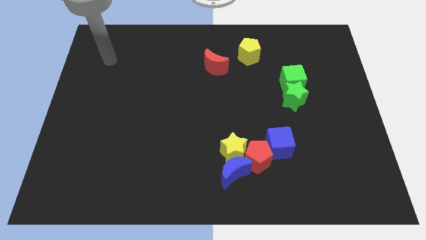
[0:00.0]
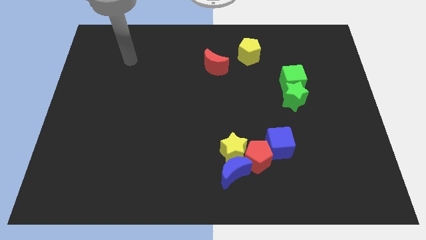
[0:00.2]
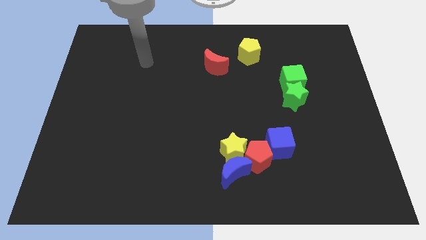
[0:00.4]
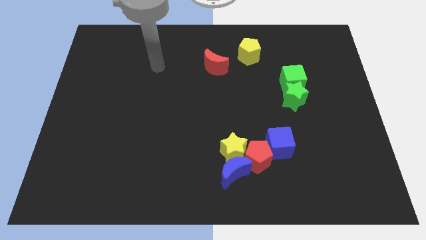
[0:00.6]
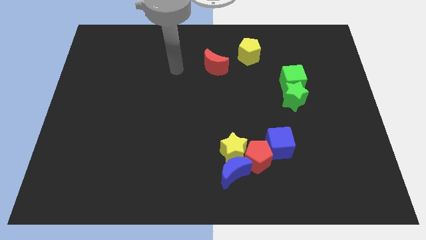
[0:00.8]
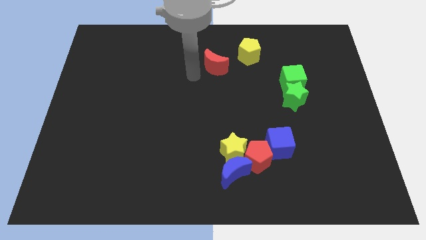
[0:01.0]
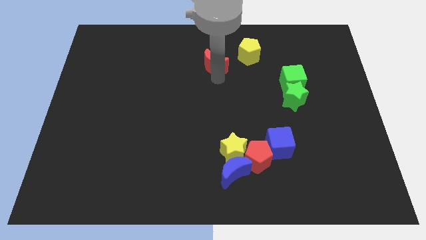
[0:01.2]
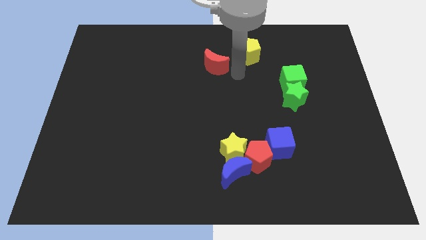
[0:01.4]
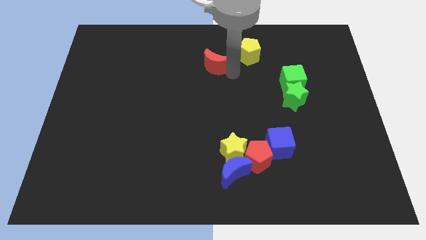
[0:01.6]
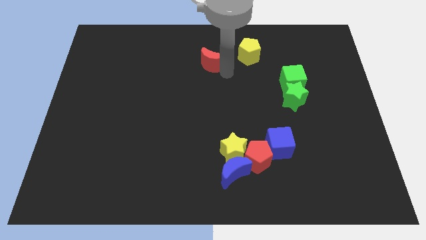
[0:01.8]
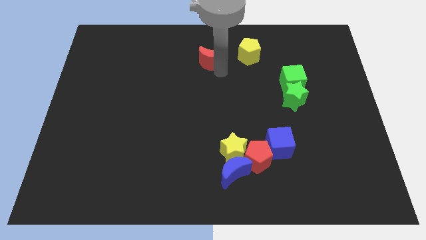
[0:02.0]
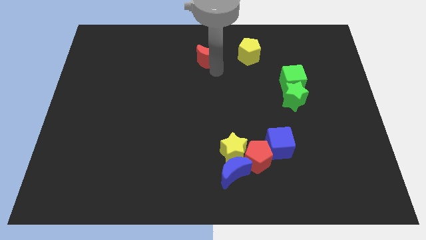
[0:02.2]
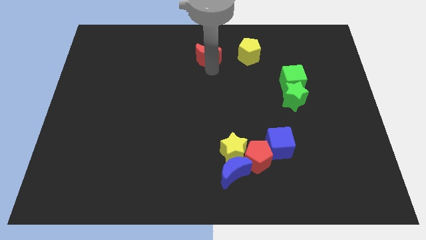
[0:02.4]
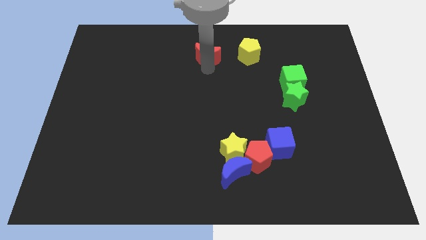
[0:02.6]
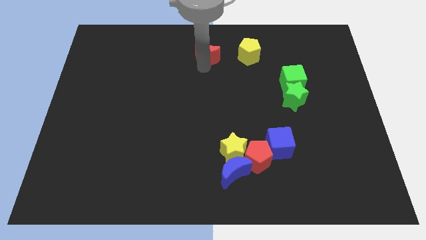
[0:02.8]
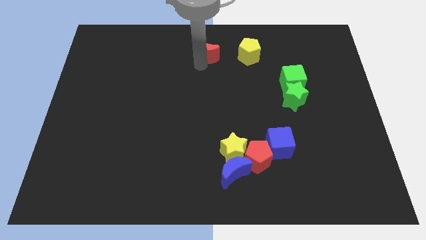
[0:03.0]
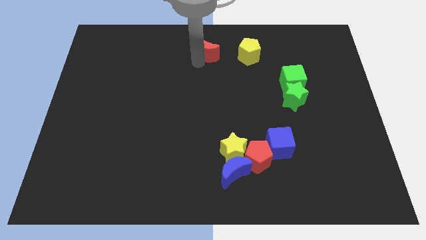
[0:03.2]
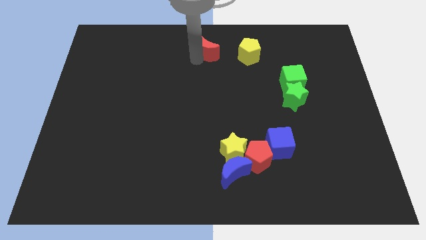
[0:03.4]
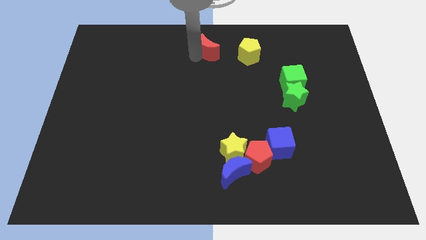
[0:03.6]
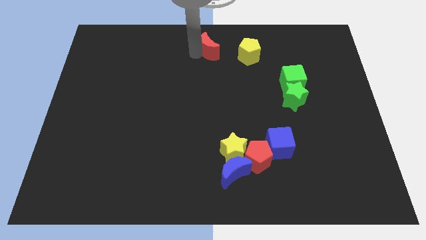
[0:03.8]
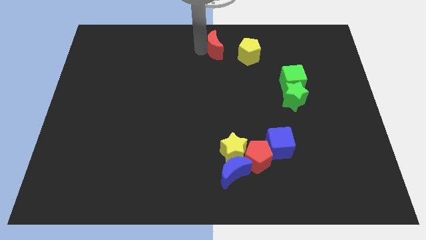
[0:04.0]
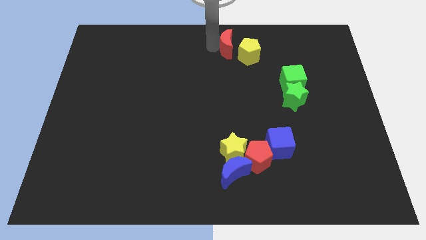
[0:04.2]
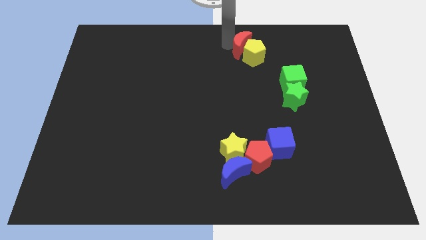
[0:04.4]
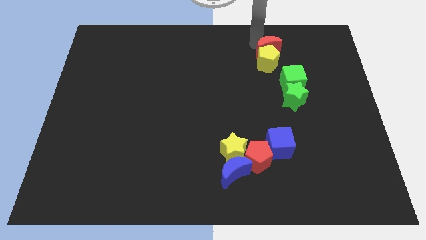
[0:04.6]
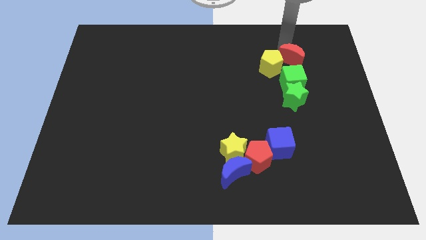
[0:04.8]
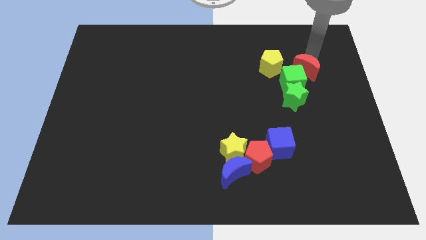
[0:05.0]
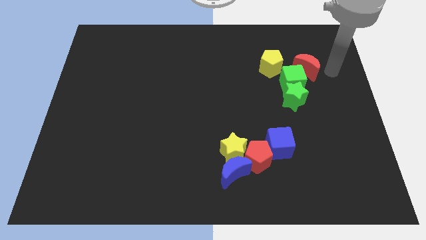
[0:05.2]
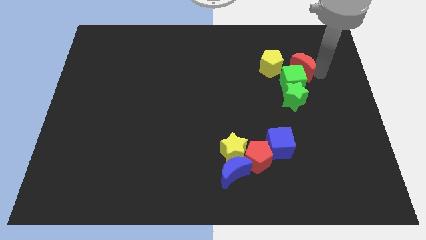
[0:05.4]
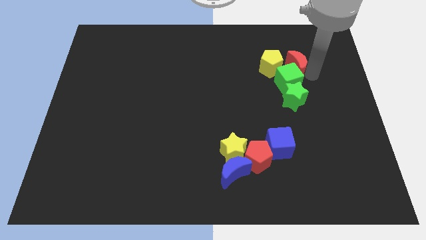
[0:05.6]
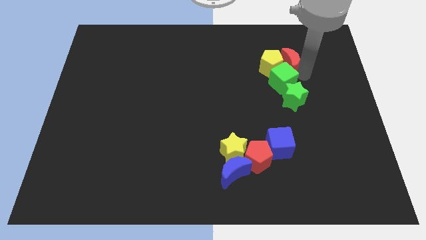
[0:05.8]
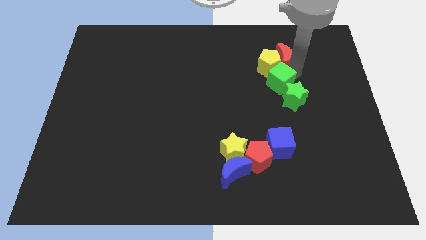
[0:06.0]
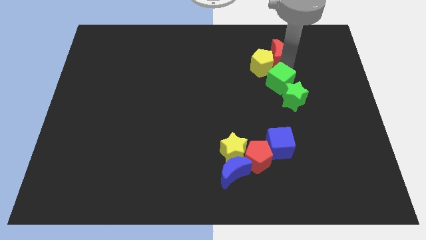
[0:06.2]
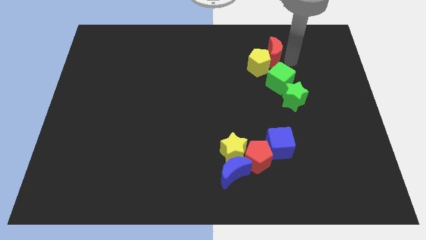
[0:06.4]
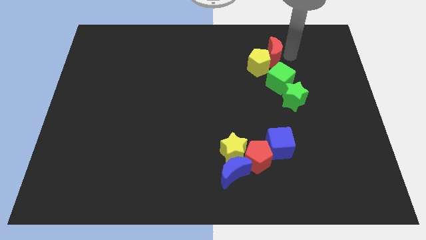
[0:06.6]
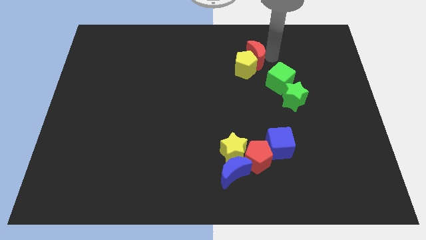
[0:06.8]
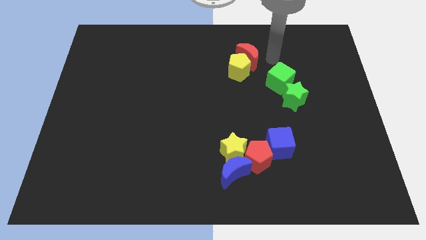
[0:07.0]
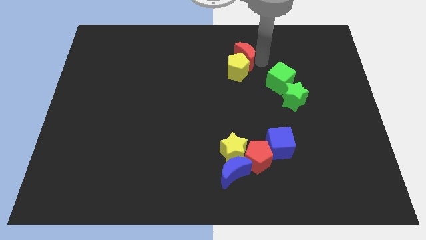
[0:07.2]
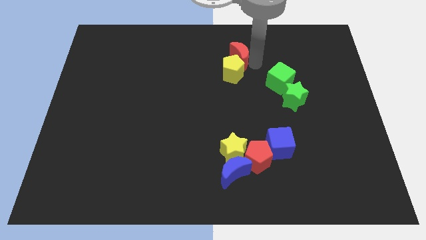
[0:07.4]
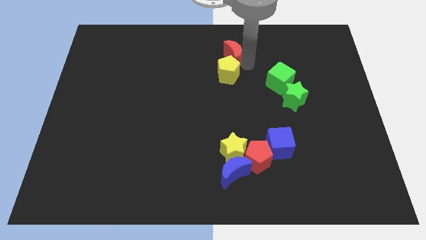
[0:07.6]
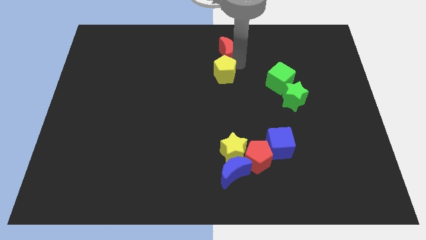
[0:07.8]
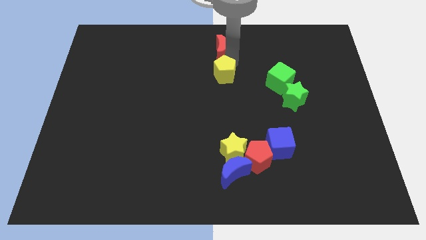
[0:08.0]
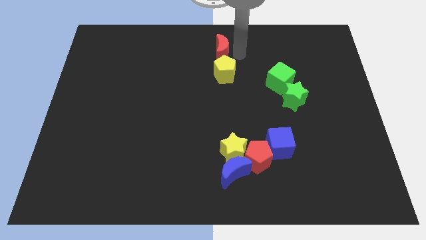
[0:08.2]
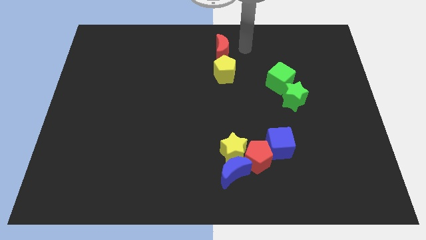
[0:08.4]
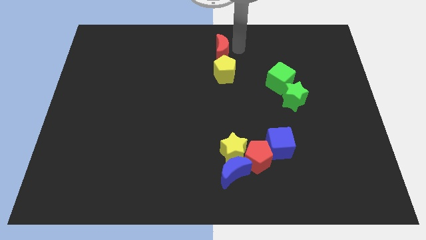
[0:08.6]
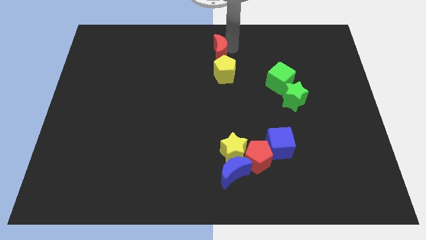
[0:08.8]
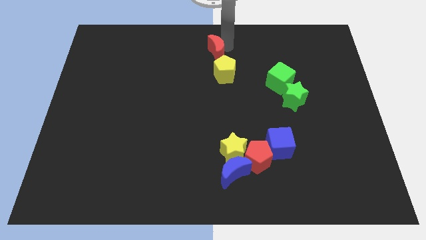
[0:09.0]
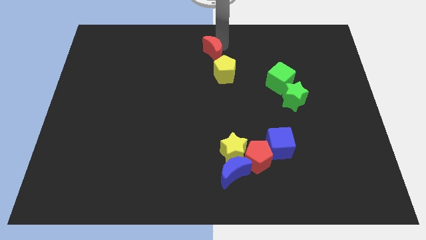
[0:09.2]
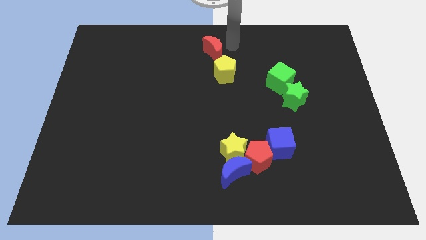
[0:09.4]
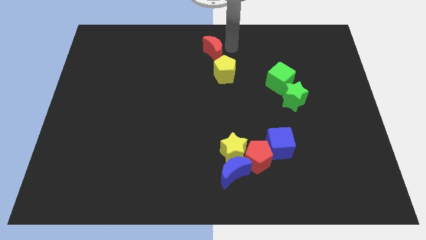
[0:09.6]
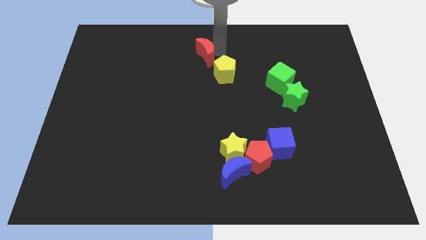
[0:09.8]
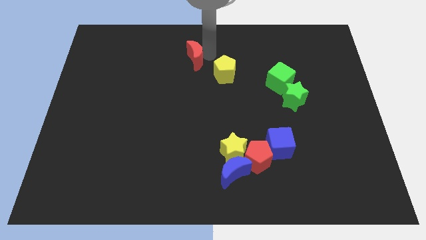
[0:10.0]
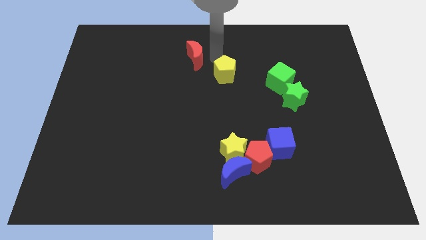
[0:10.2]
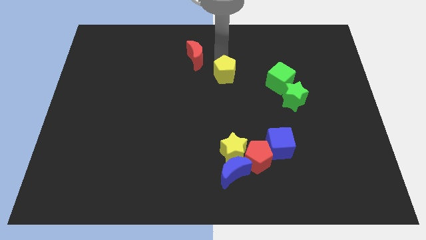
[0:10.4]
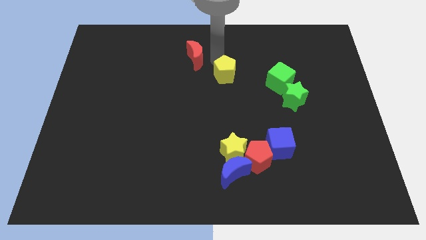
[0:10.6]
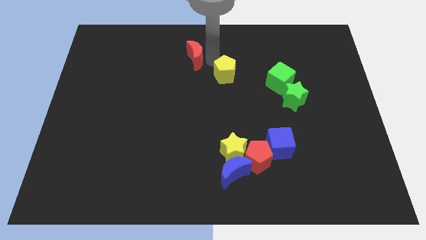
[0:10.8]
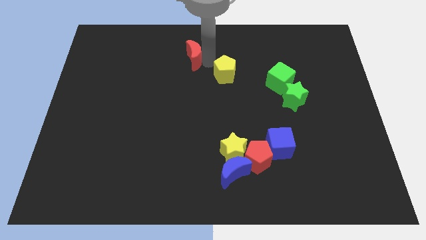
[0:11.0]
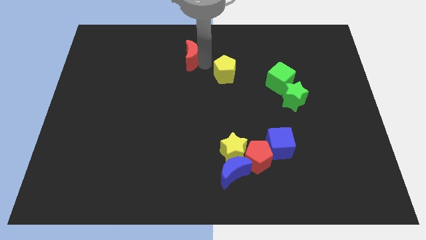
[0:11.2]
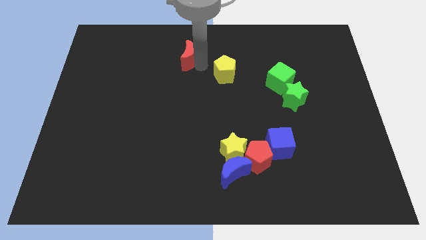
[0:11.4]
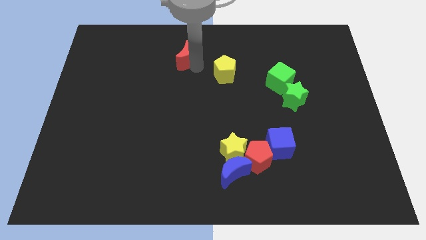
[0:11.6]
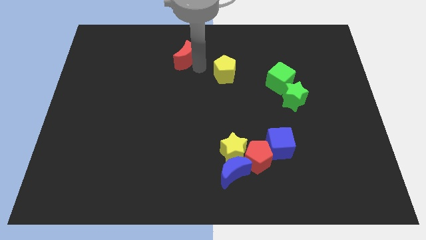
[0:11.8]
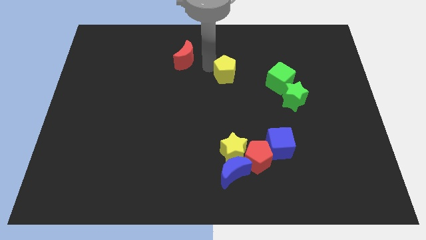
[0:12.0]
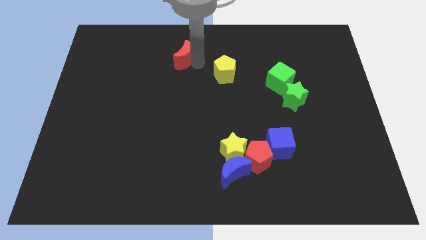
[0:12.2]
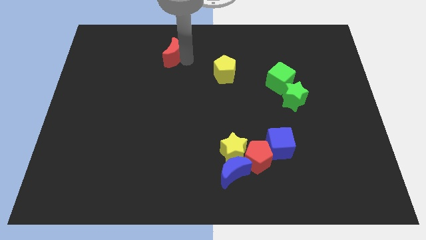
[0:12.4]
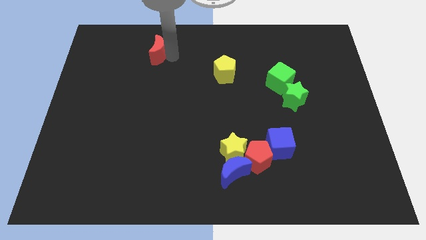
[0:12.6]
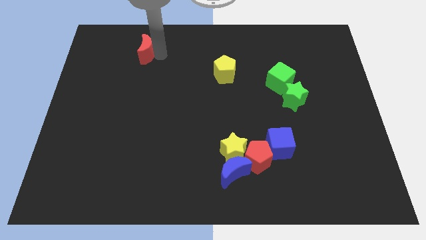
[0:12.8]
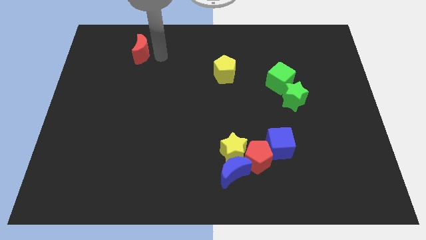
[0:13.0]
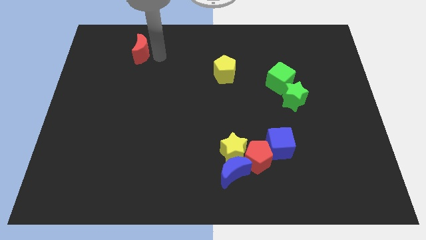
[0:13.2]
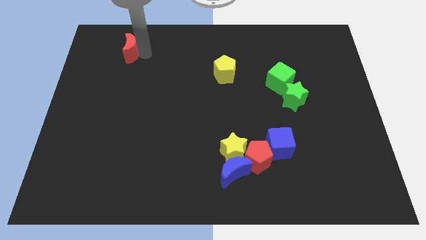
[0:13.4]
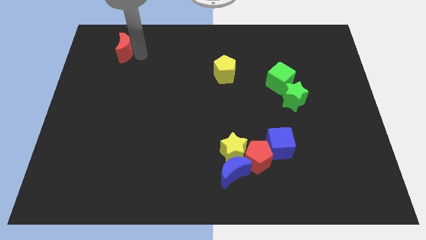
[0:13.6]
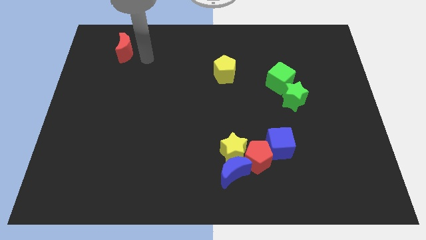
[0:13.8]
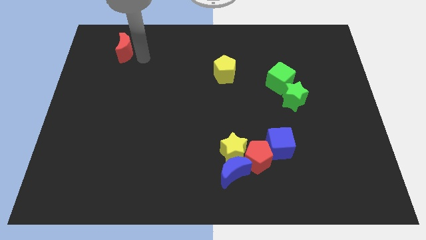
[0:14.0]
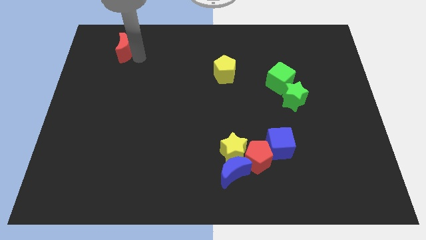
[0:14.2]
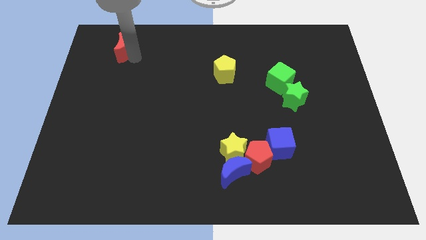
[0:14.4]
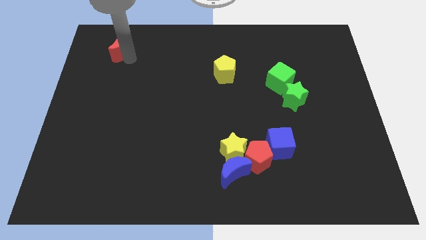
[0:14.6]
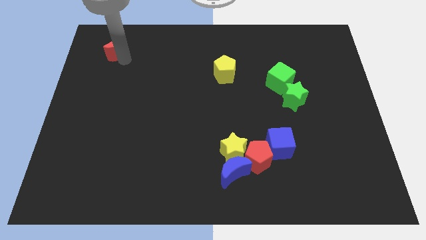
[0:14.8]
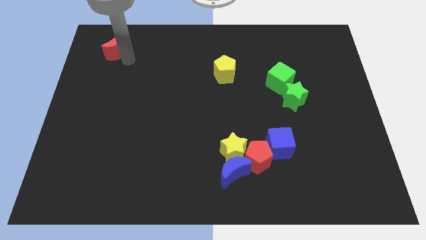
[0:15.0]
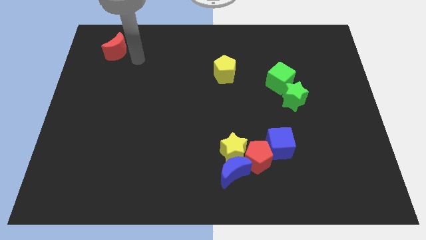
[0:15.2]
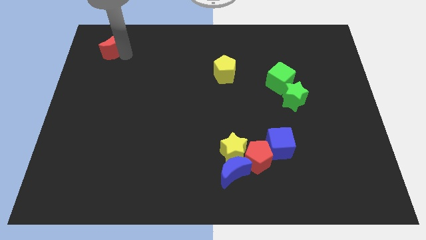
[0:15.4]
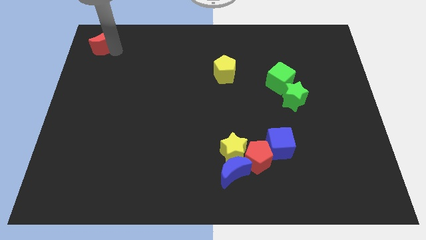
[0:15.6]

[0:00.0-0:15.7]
slide the red moon to the upper left corner
